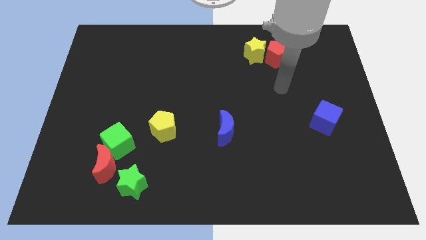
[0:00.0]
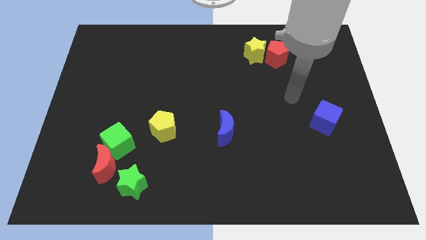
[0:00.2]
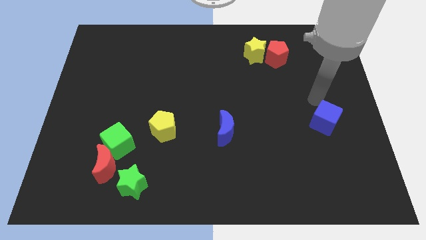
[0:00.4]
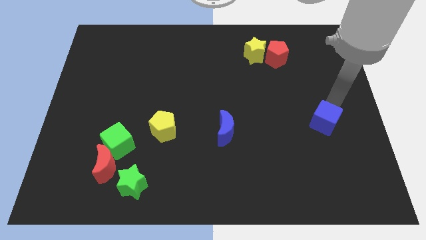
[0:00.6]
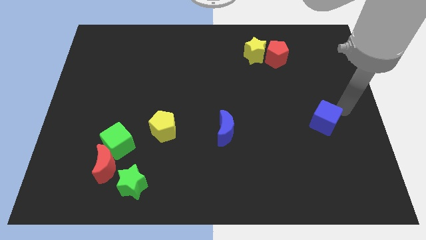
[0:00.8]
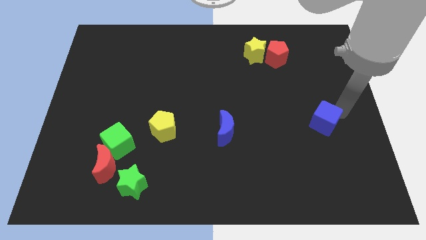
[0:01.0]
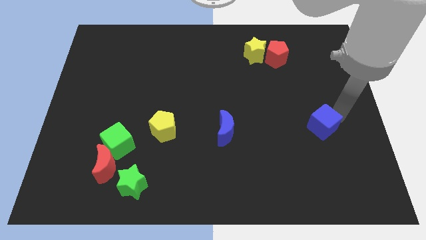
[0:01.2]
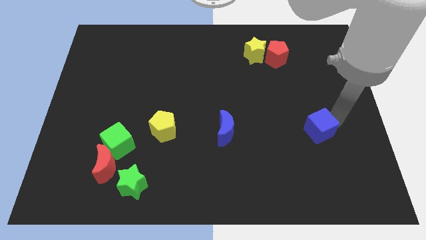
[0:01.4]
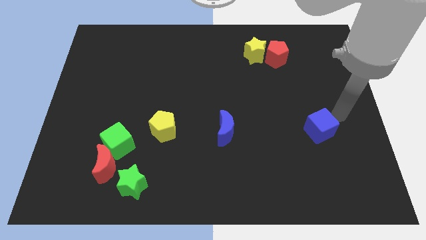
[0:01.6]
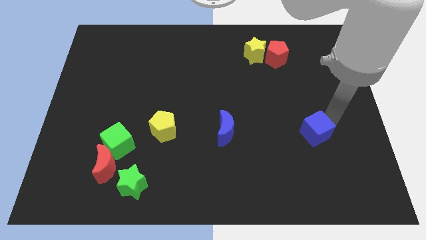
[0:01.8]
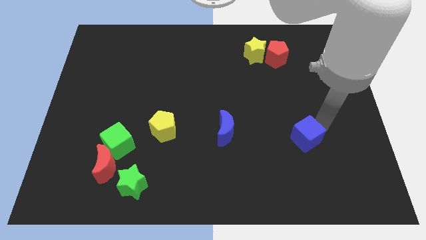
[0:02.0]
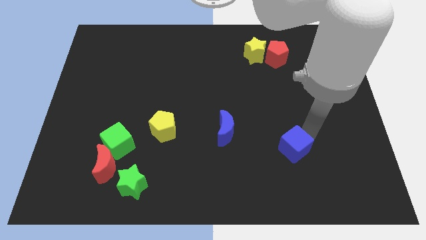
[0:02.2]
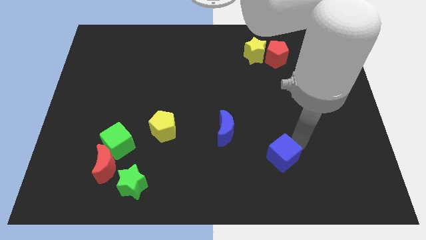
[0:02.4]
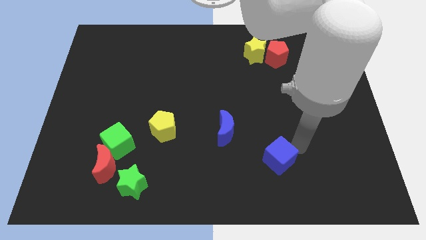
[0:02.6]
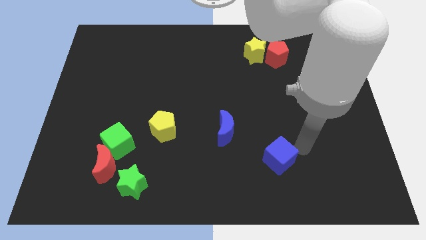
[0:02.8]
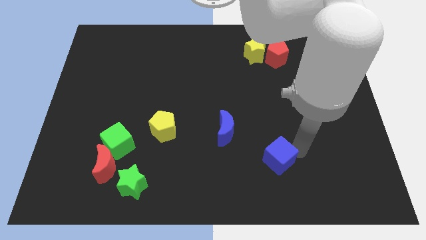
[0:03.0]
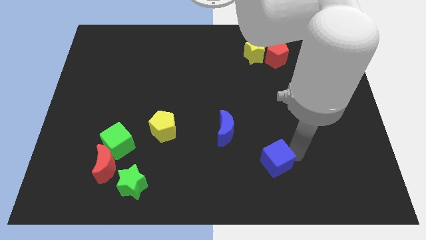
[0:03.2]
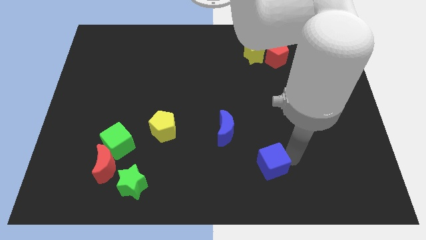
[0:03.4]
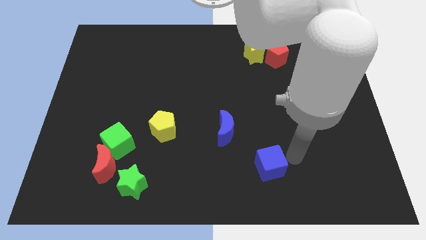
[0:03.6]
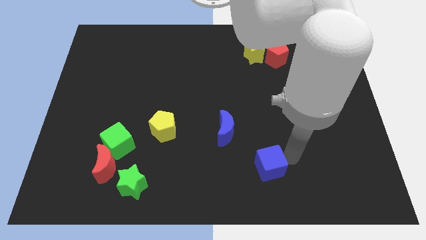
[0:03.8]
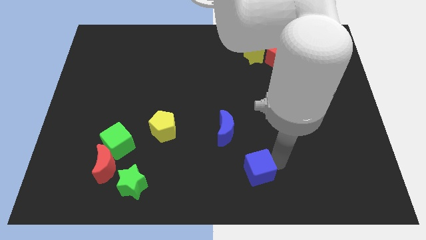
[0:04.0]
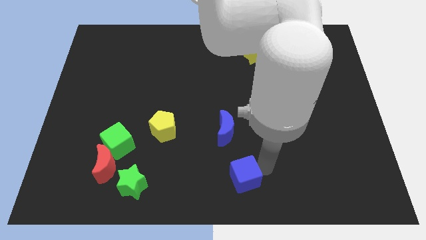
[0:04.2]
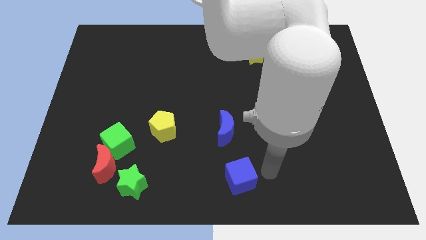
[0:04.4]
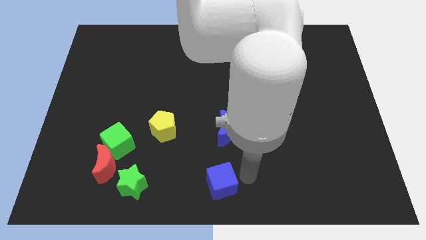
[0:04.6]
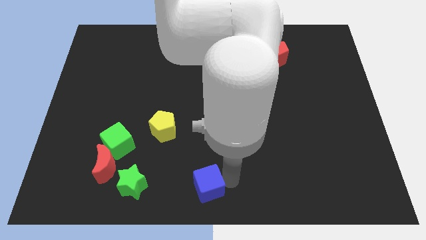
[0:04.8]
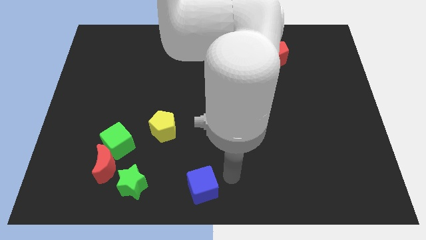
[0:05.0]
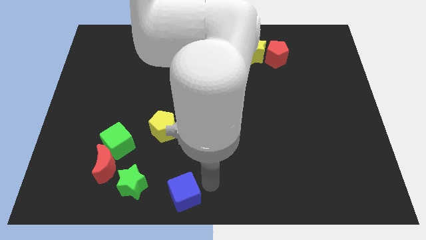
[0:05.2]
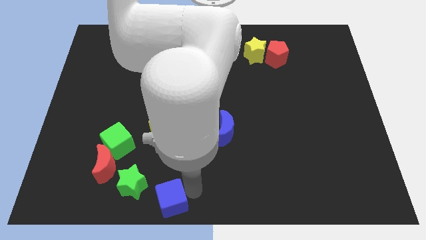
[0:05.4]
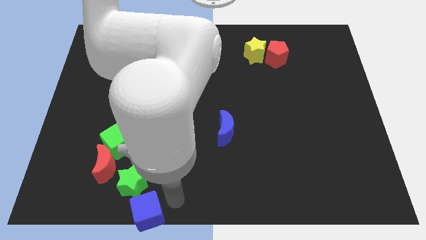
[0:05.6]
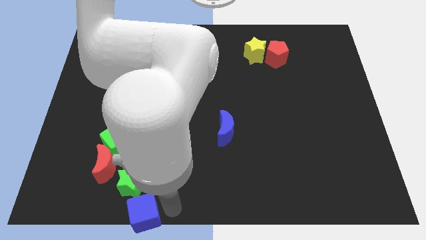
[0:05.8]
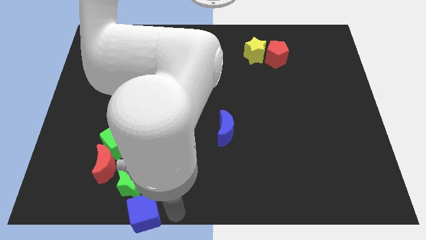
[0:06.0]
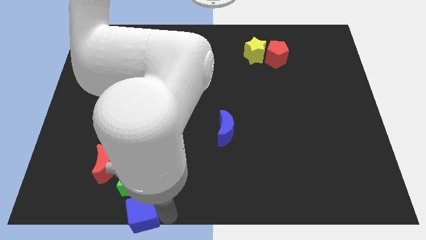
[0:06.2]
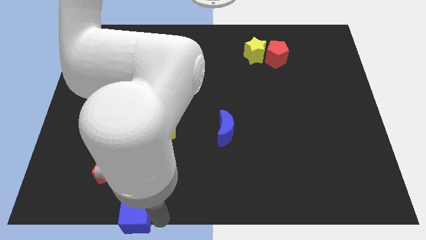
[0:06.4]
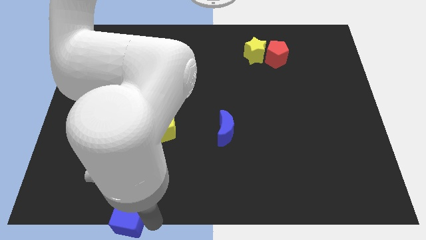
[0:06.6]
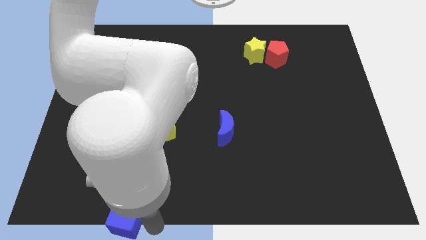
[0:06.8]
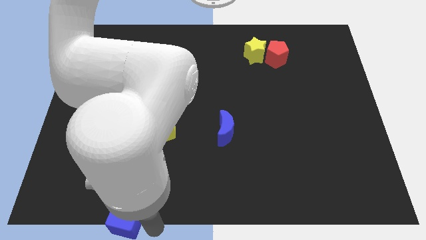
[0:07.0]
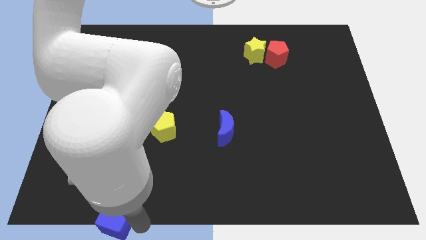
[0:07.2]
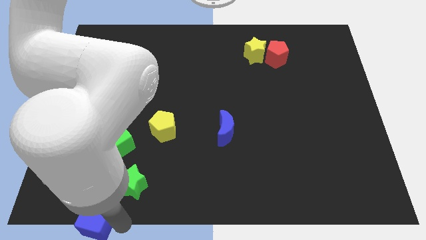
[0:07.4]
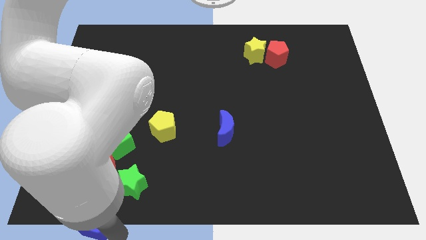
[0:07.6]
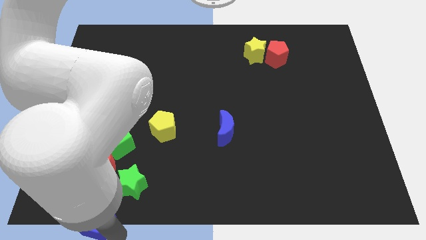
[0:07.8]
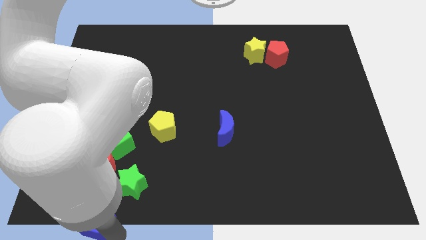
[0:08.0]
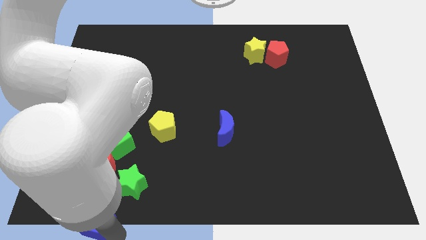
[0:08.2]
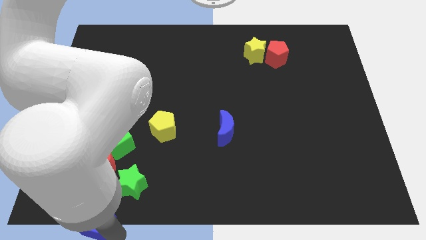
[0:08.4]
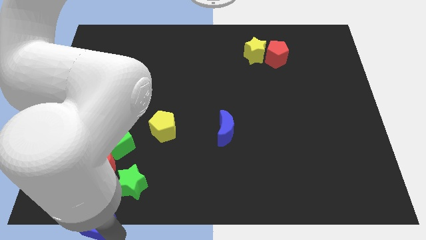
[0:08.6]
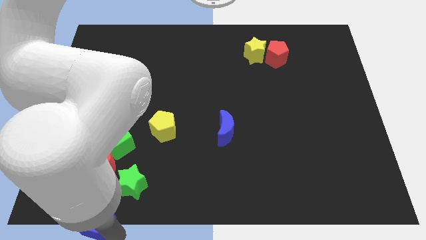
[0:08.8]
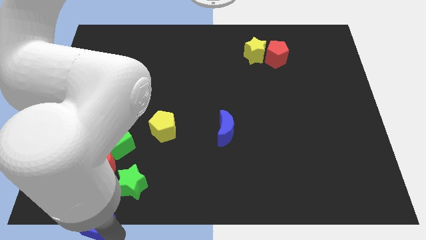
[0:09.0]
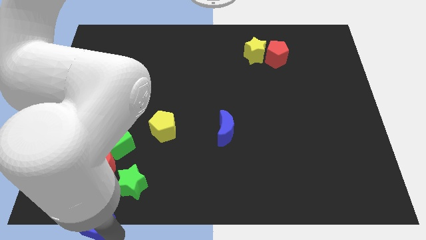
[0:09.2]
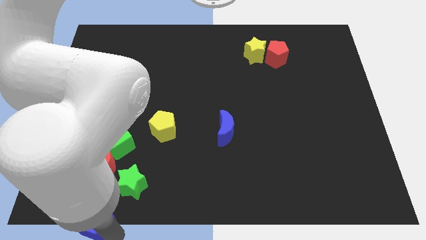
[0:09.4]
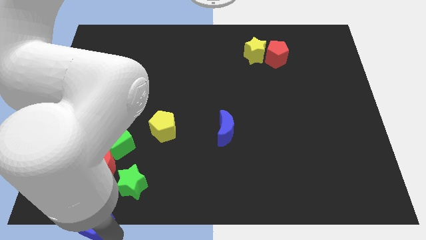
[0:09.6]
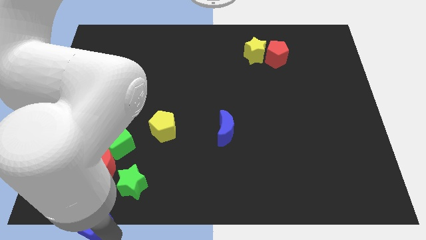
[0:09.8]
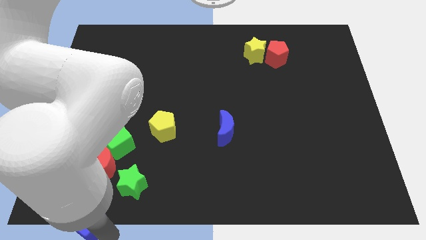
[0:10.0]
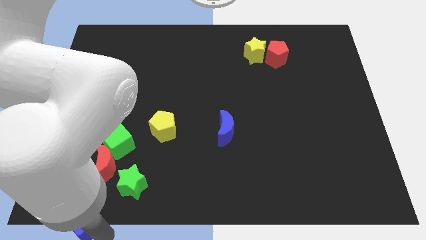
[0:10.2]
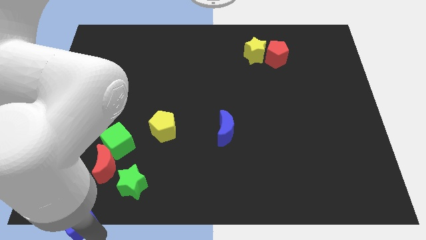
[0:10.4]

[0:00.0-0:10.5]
put the blue cube to the bottom left corner
